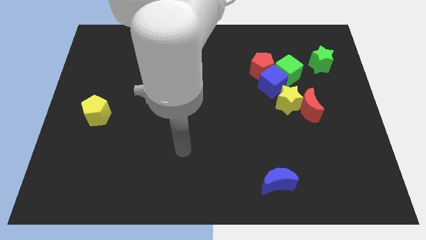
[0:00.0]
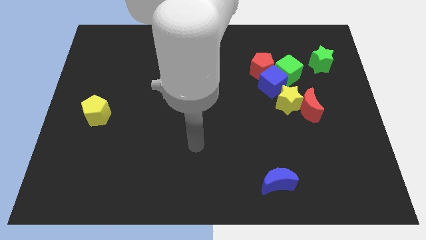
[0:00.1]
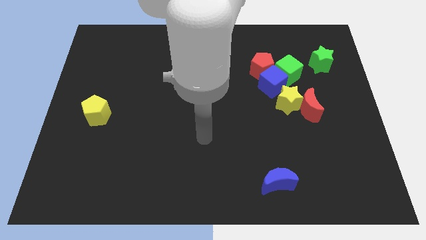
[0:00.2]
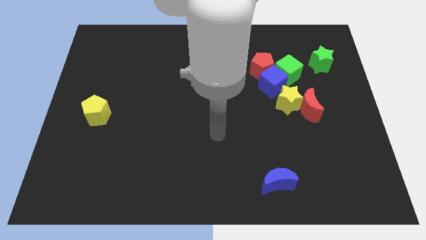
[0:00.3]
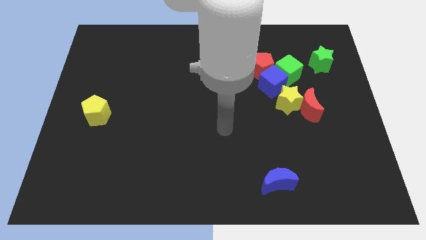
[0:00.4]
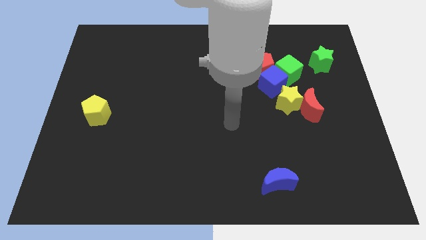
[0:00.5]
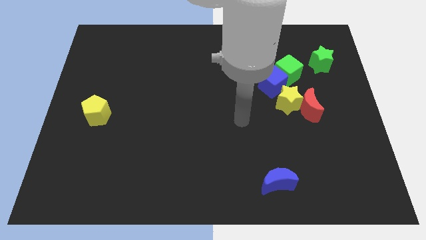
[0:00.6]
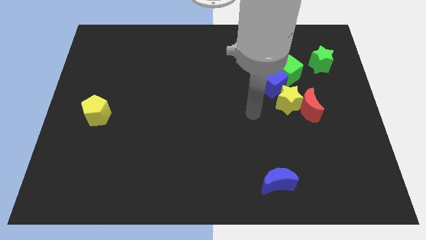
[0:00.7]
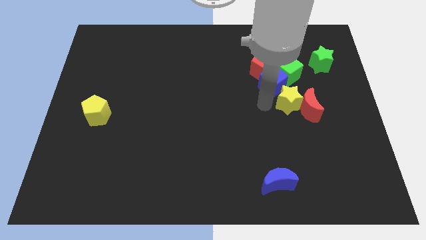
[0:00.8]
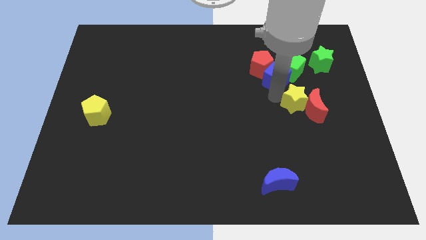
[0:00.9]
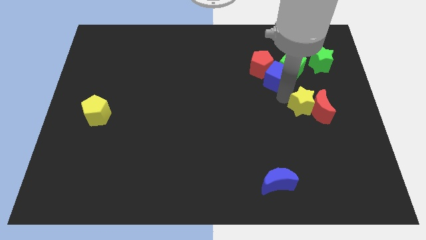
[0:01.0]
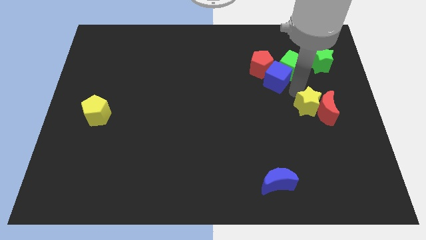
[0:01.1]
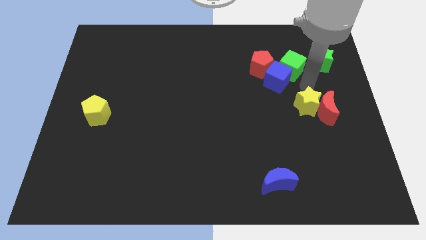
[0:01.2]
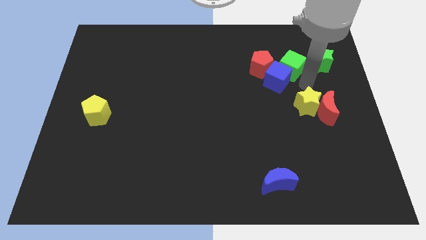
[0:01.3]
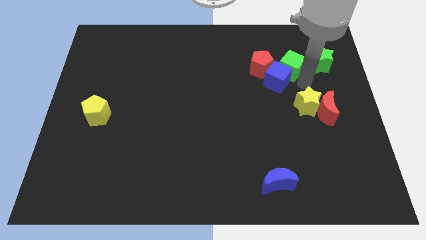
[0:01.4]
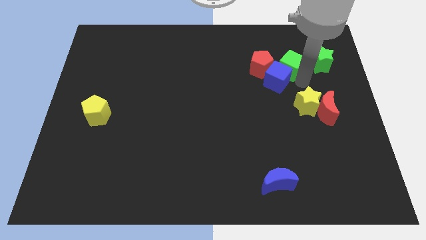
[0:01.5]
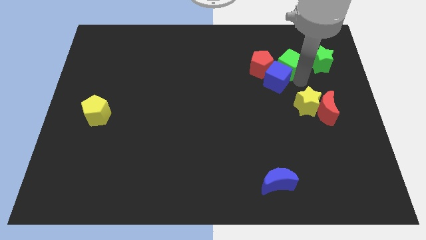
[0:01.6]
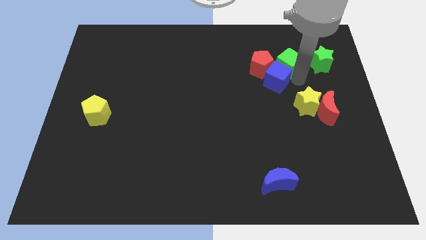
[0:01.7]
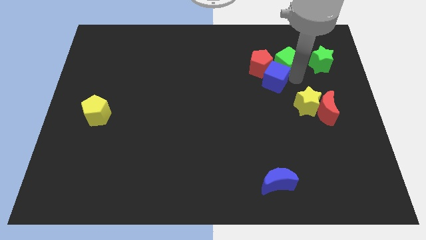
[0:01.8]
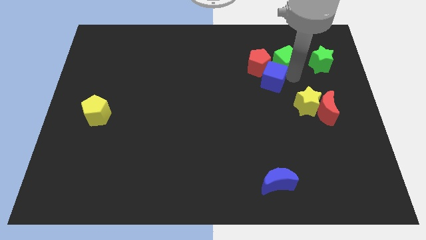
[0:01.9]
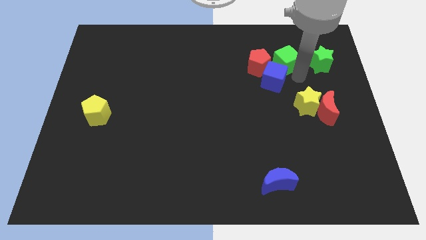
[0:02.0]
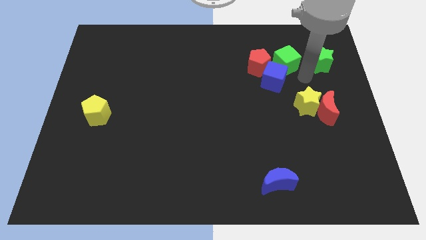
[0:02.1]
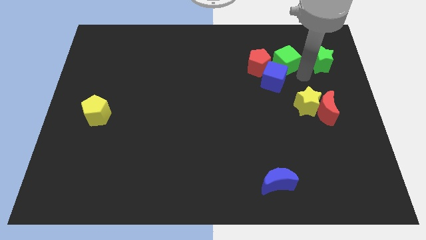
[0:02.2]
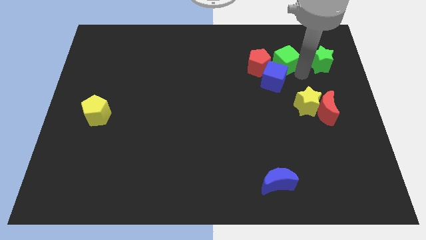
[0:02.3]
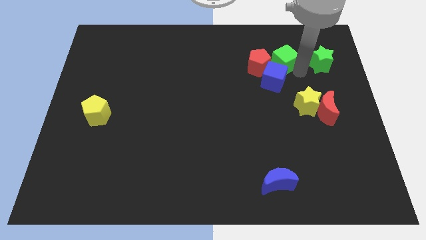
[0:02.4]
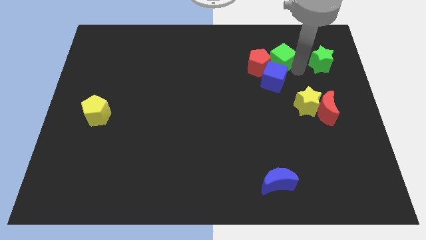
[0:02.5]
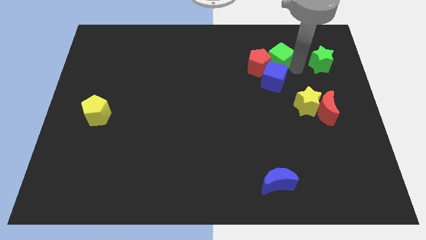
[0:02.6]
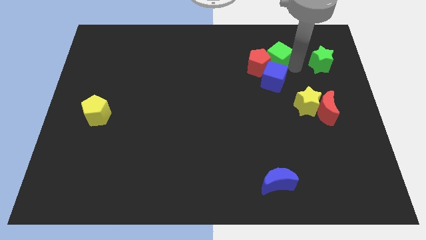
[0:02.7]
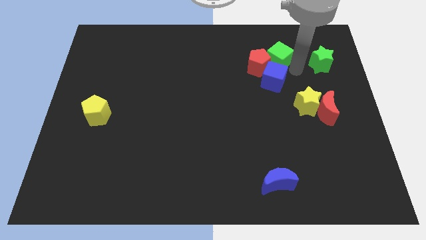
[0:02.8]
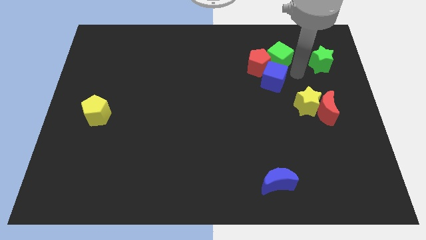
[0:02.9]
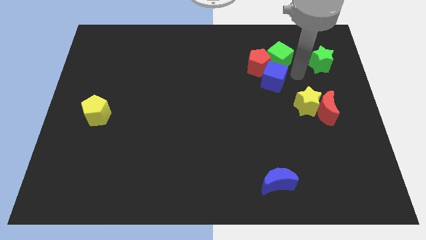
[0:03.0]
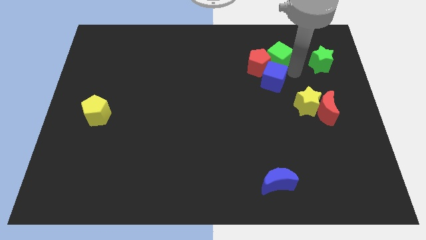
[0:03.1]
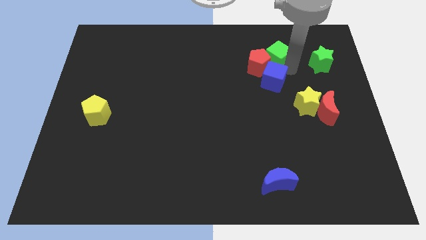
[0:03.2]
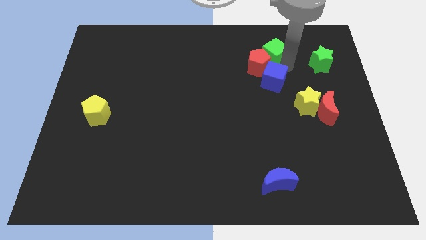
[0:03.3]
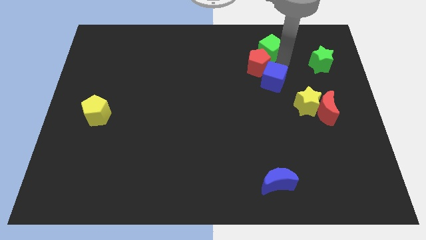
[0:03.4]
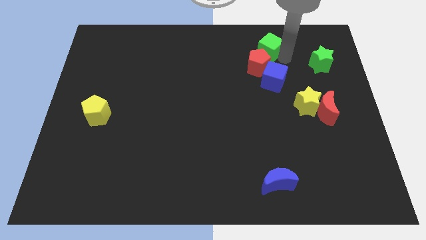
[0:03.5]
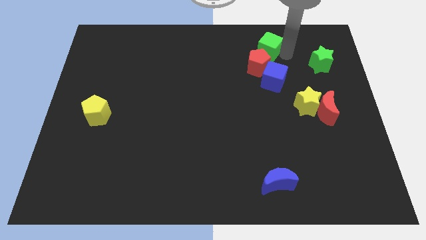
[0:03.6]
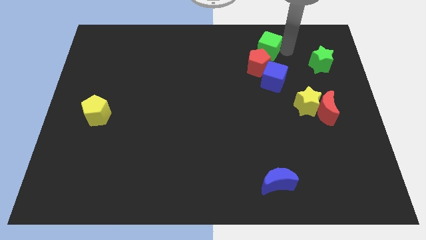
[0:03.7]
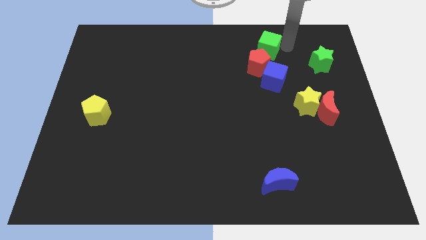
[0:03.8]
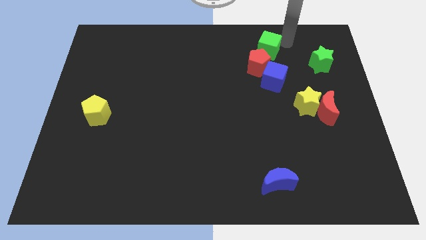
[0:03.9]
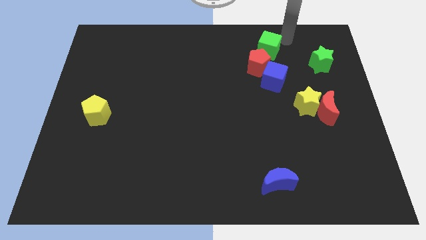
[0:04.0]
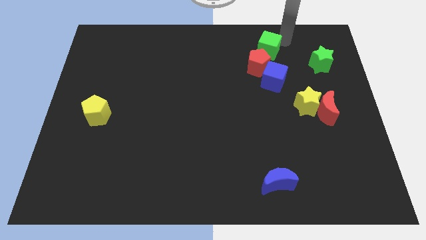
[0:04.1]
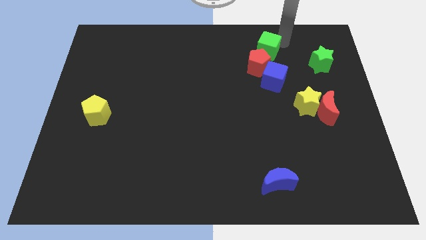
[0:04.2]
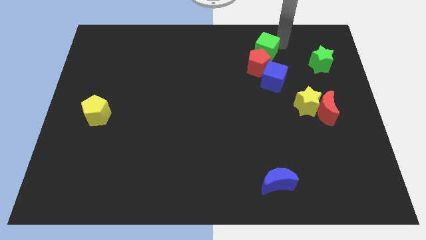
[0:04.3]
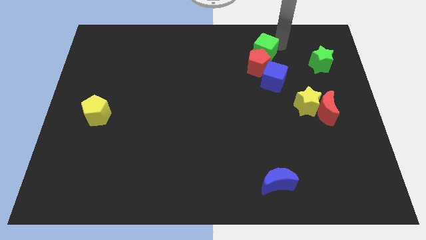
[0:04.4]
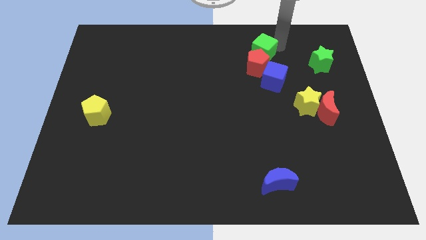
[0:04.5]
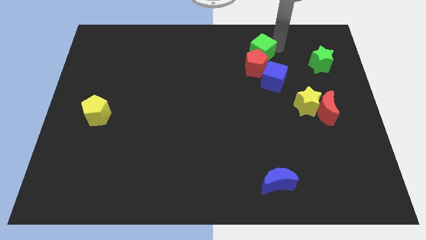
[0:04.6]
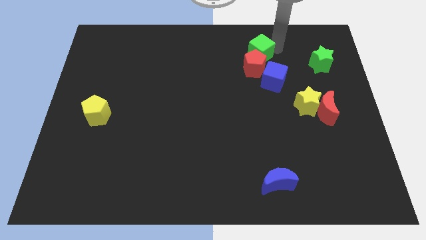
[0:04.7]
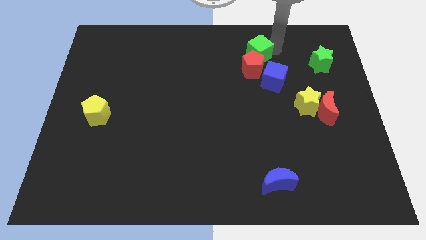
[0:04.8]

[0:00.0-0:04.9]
move the green cube to the top left side of the blue cube
